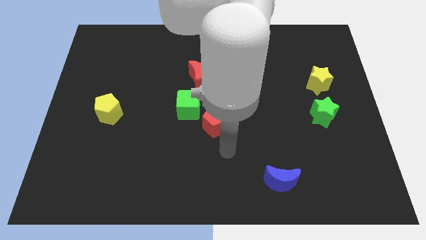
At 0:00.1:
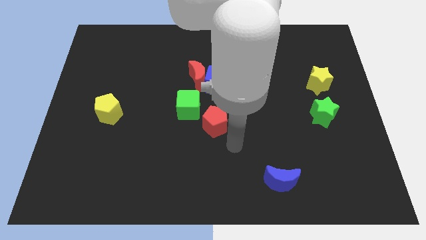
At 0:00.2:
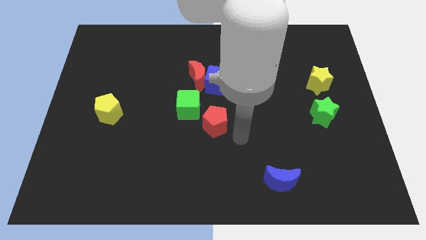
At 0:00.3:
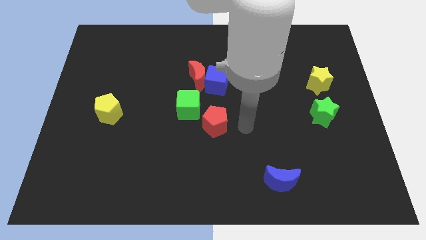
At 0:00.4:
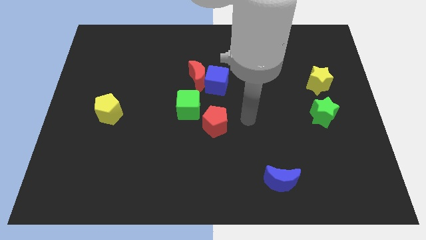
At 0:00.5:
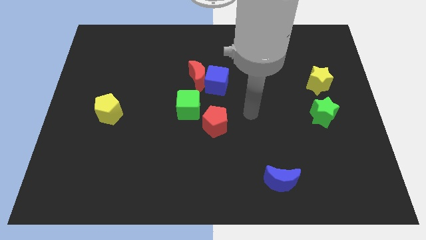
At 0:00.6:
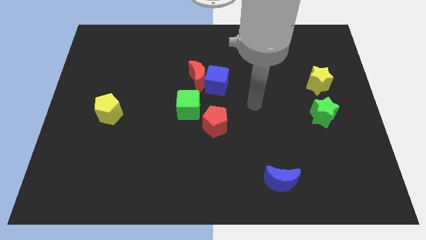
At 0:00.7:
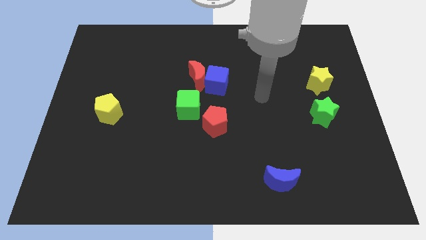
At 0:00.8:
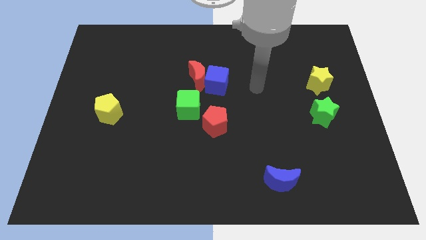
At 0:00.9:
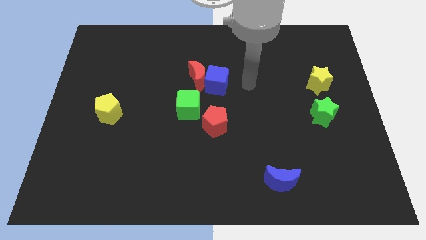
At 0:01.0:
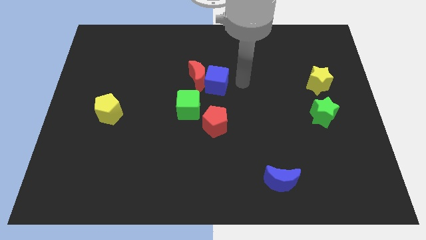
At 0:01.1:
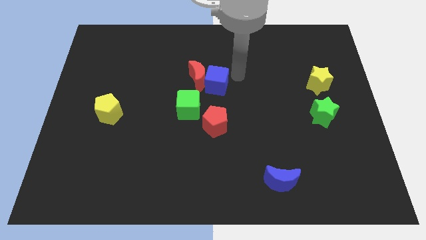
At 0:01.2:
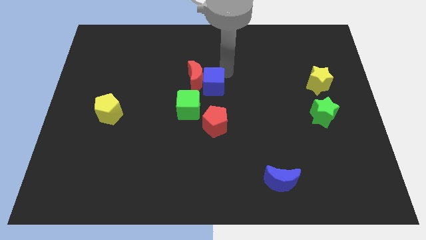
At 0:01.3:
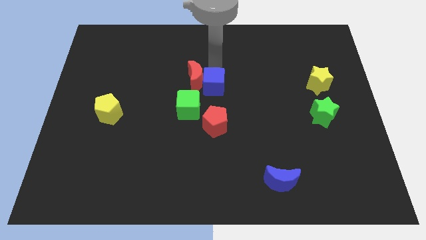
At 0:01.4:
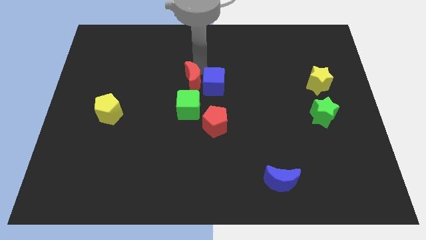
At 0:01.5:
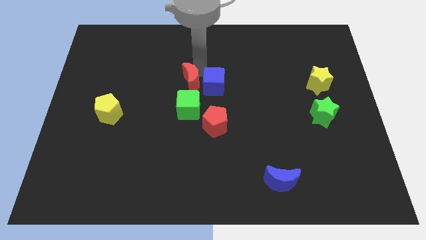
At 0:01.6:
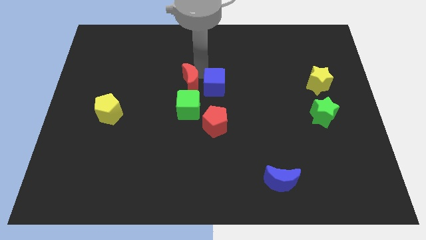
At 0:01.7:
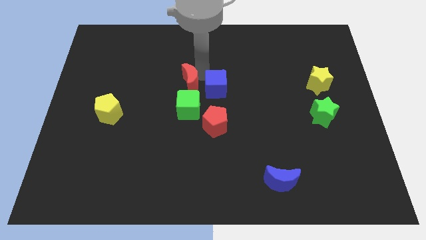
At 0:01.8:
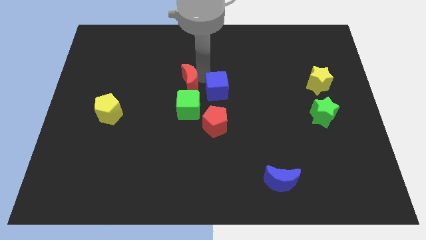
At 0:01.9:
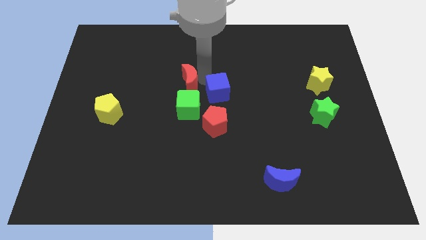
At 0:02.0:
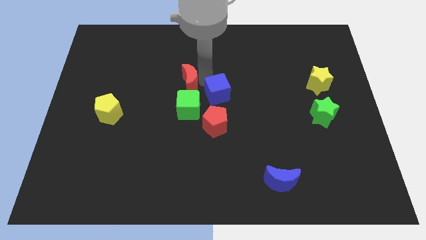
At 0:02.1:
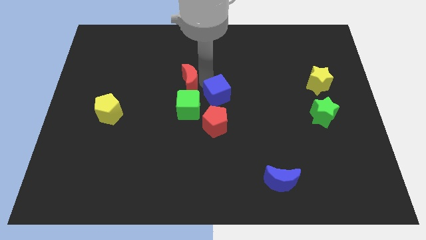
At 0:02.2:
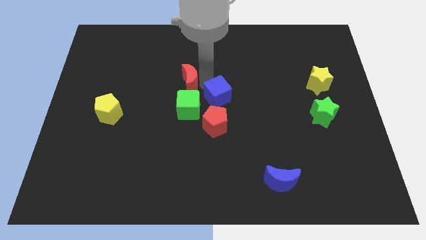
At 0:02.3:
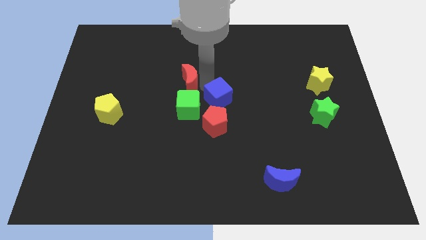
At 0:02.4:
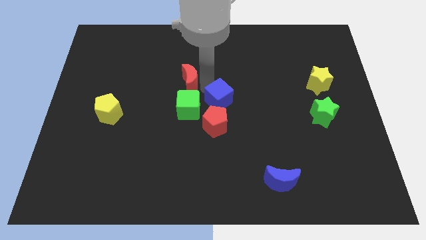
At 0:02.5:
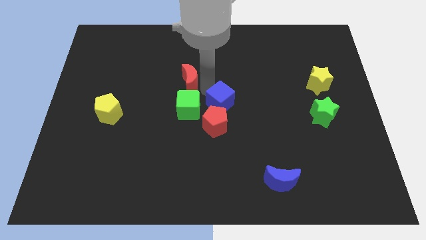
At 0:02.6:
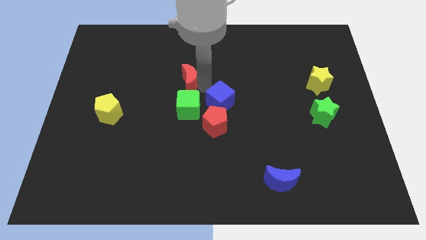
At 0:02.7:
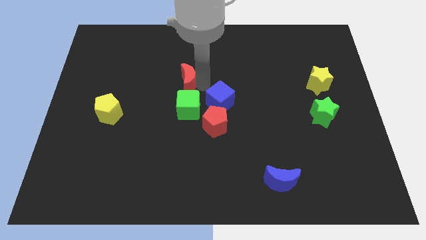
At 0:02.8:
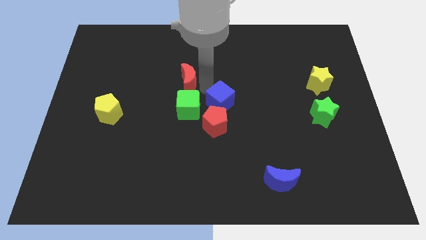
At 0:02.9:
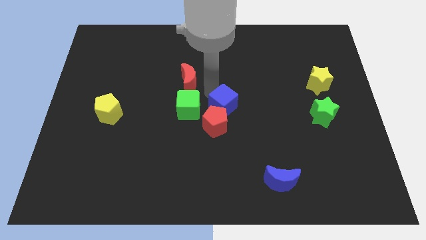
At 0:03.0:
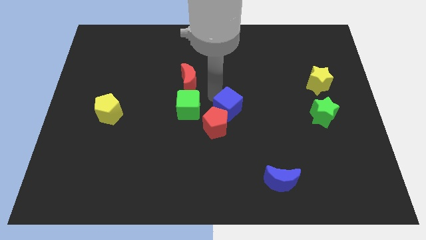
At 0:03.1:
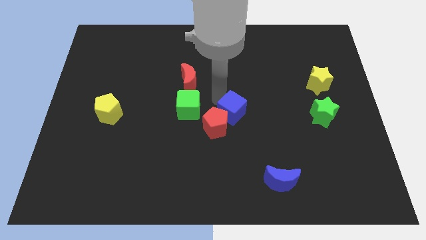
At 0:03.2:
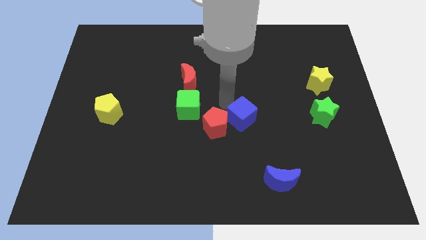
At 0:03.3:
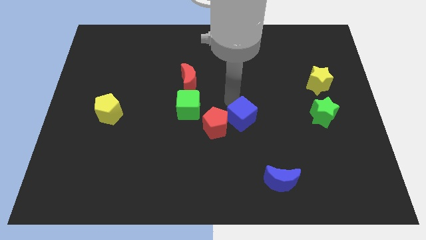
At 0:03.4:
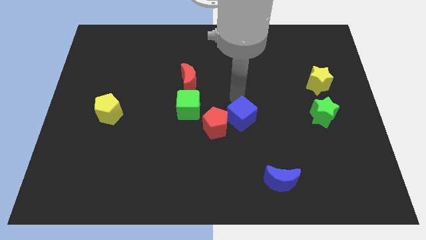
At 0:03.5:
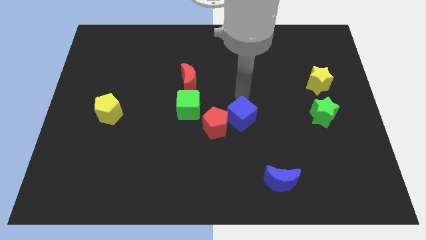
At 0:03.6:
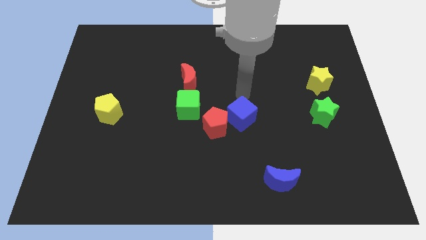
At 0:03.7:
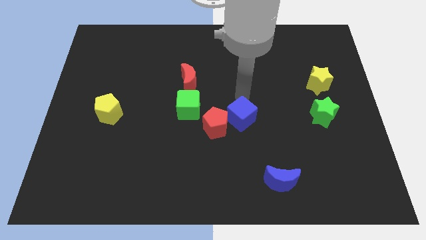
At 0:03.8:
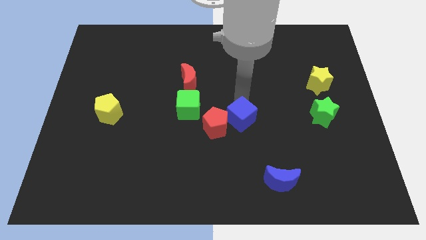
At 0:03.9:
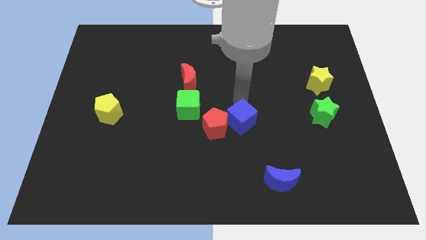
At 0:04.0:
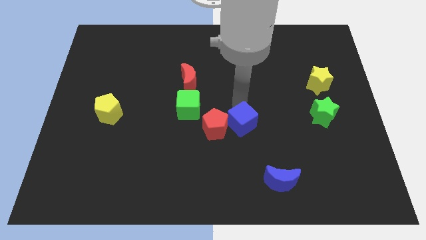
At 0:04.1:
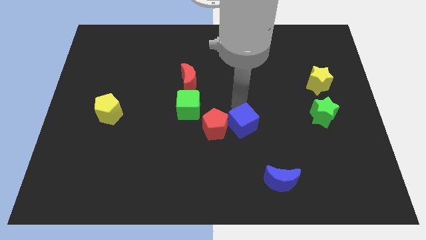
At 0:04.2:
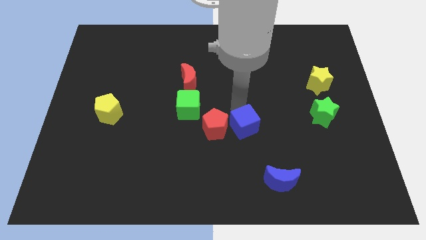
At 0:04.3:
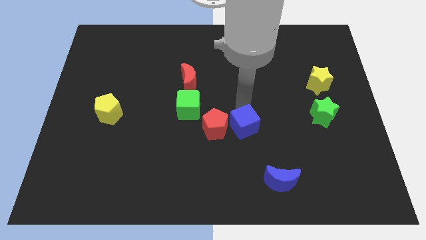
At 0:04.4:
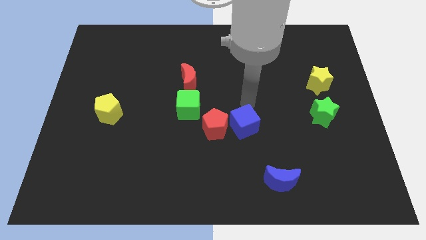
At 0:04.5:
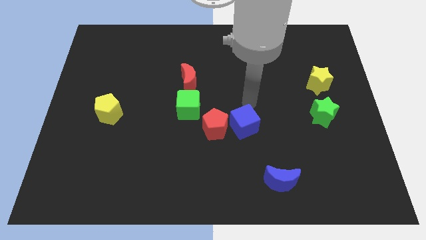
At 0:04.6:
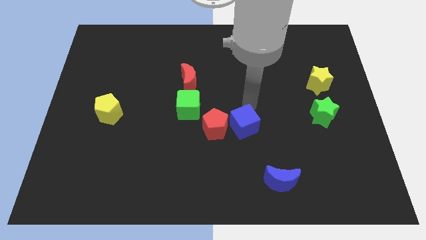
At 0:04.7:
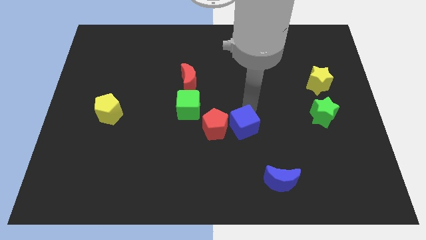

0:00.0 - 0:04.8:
slide the blue cube to the bottom right side of the red pentagon

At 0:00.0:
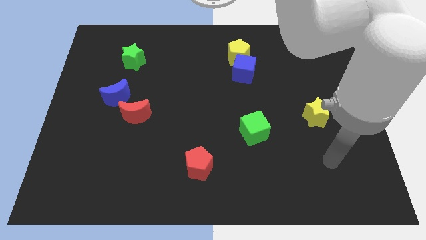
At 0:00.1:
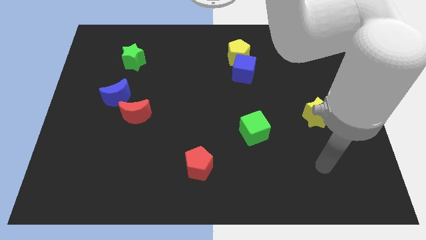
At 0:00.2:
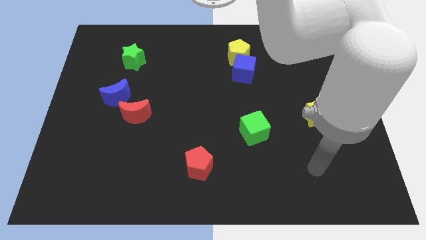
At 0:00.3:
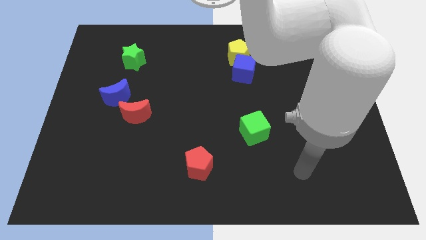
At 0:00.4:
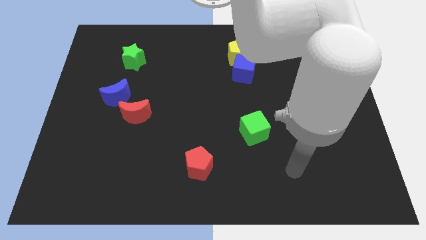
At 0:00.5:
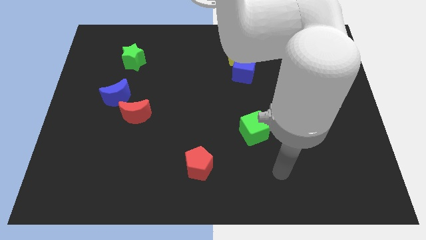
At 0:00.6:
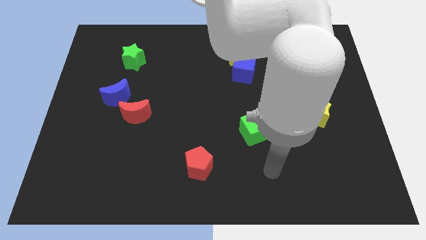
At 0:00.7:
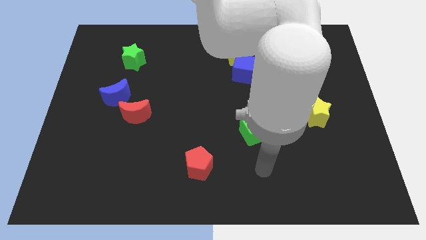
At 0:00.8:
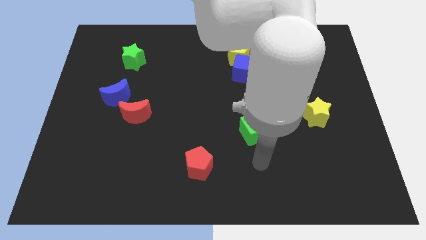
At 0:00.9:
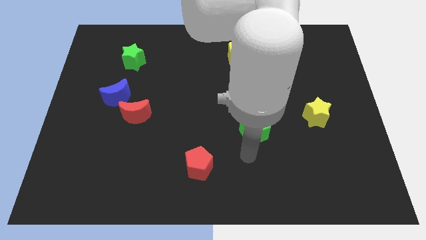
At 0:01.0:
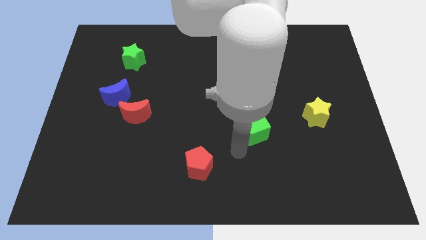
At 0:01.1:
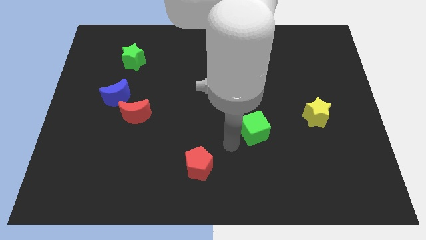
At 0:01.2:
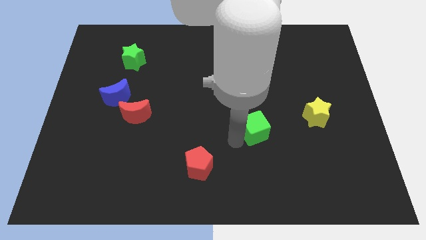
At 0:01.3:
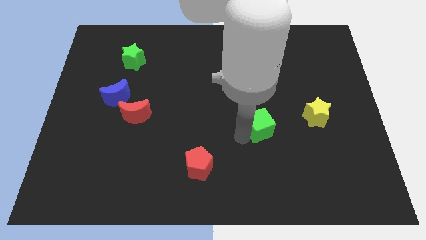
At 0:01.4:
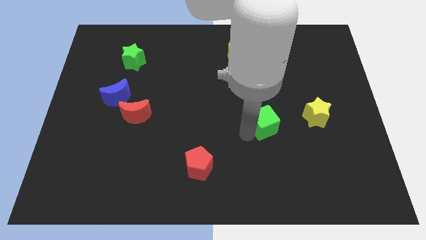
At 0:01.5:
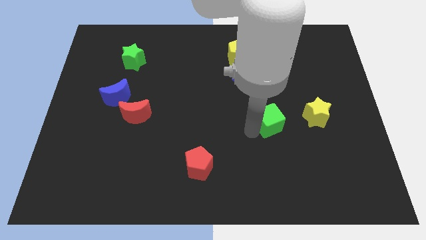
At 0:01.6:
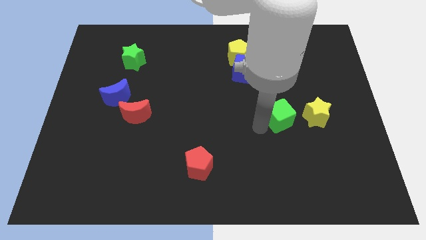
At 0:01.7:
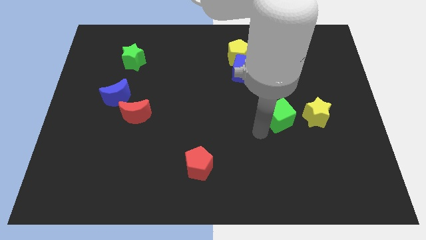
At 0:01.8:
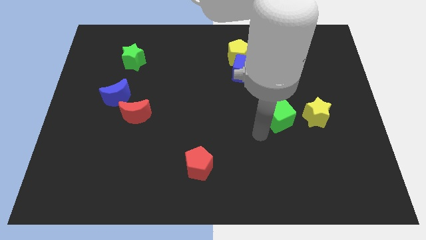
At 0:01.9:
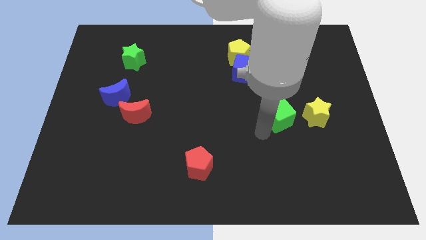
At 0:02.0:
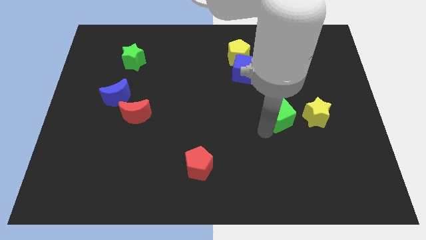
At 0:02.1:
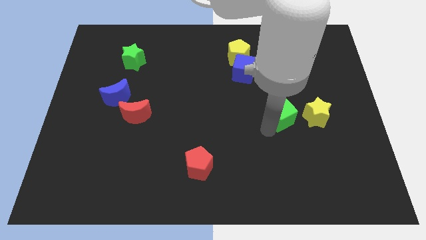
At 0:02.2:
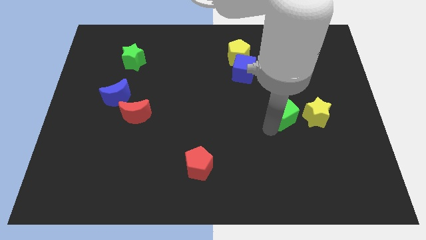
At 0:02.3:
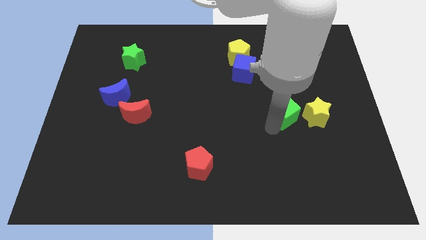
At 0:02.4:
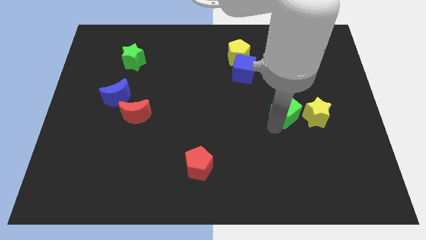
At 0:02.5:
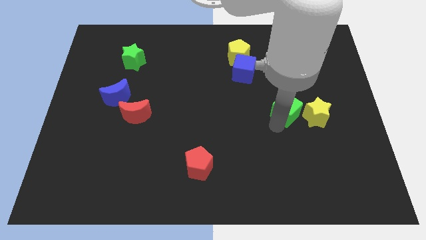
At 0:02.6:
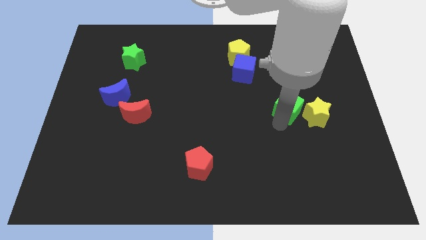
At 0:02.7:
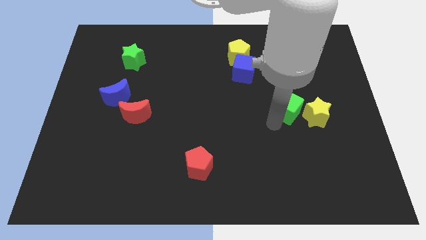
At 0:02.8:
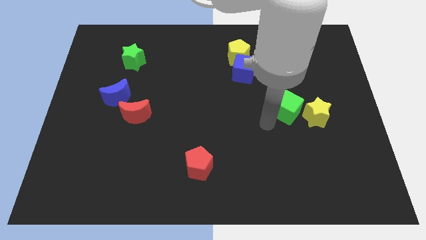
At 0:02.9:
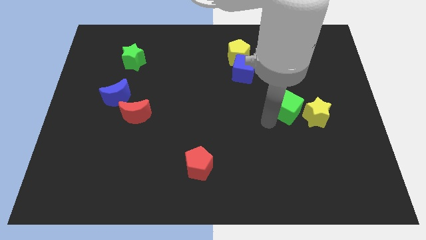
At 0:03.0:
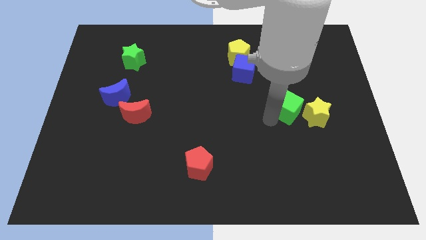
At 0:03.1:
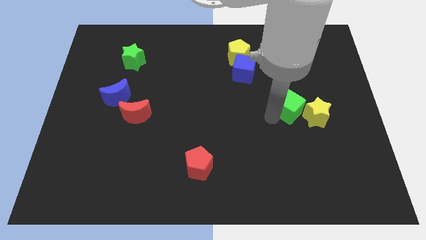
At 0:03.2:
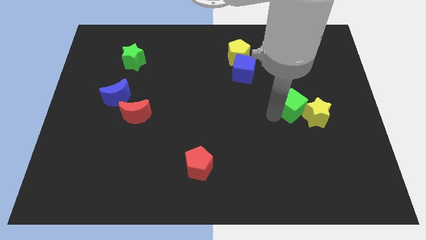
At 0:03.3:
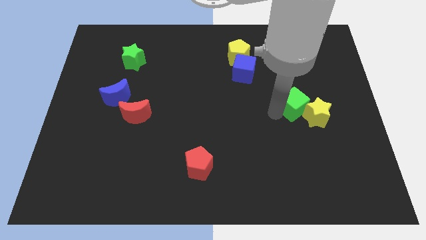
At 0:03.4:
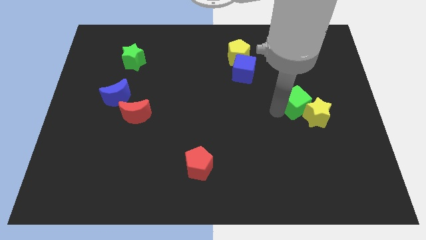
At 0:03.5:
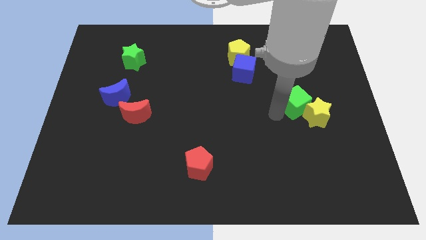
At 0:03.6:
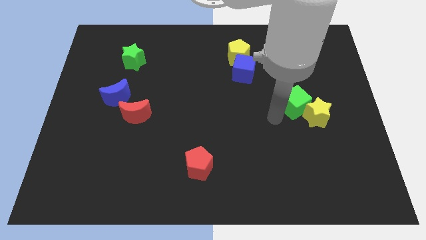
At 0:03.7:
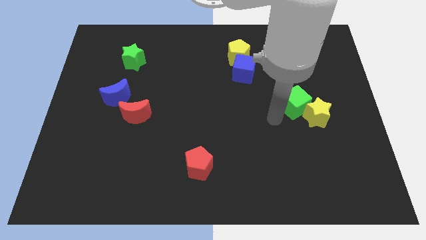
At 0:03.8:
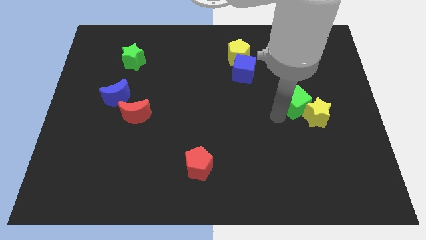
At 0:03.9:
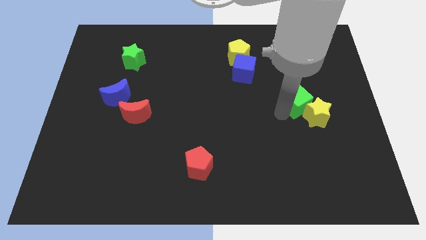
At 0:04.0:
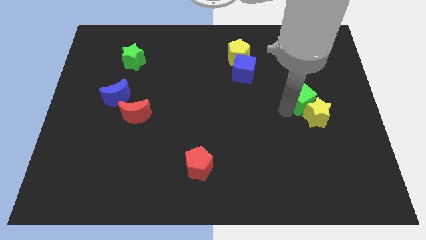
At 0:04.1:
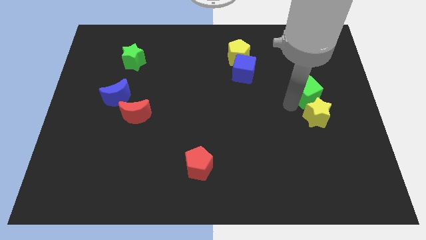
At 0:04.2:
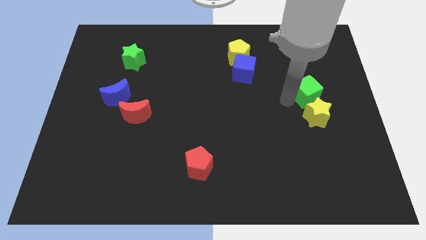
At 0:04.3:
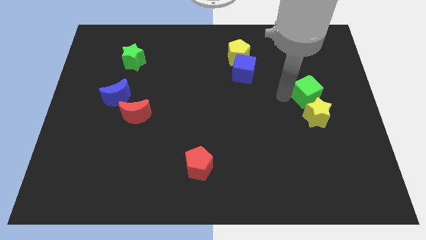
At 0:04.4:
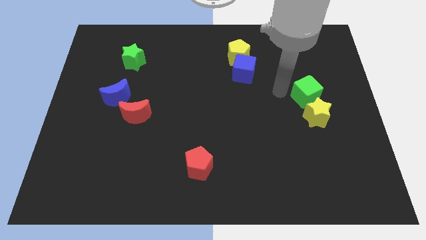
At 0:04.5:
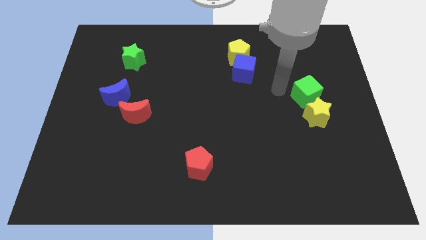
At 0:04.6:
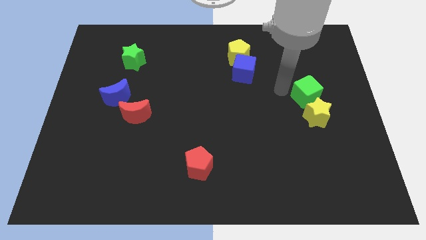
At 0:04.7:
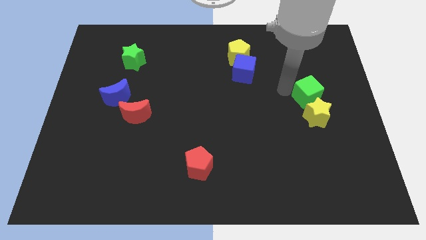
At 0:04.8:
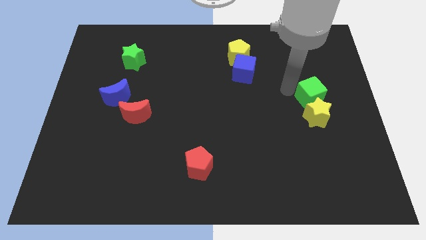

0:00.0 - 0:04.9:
move the green cube to the top right of the yellow star
